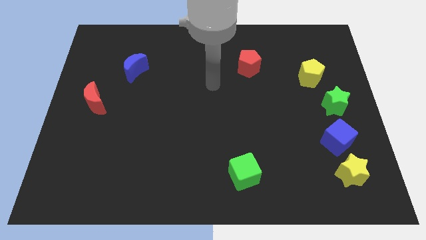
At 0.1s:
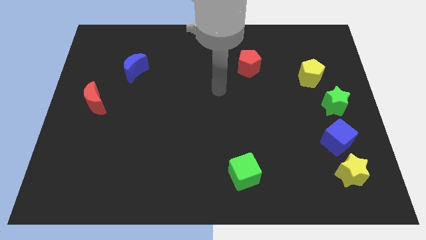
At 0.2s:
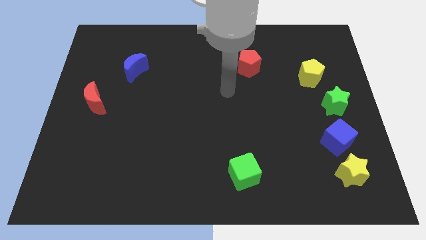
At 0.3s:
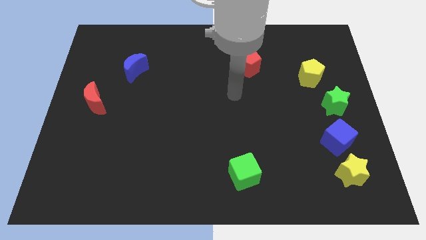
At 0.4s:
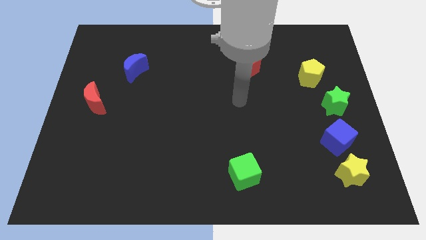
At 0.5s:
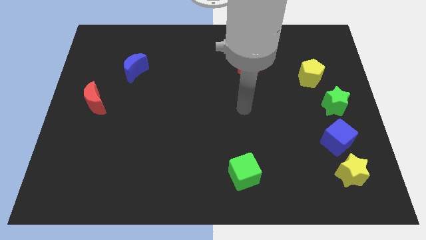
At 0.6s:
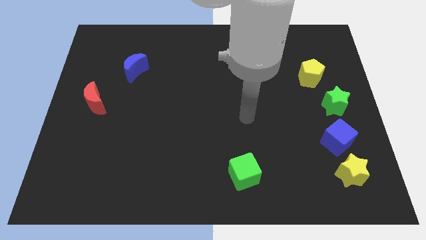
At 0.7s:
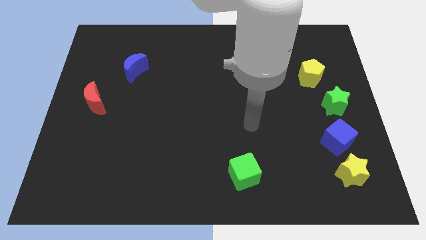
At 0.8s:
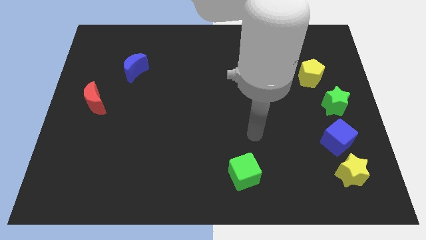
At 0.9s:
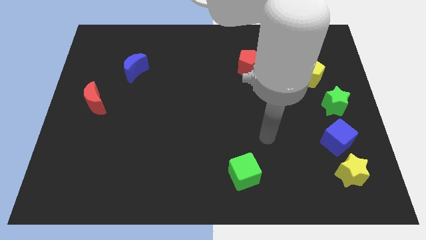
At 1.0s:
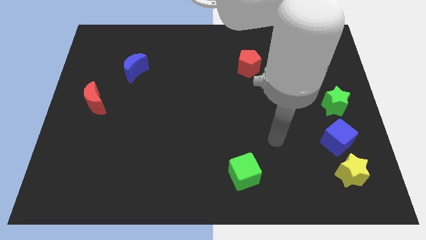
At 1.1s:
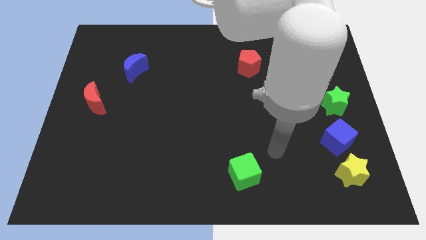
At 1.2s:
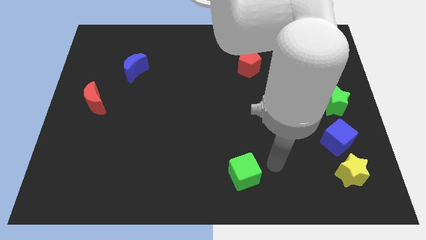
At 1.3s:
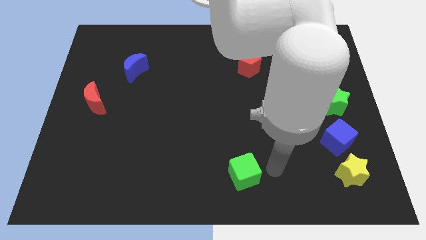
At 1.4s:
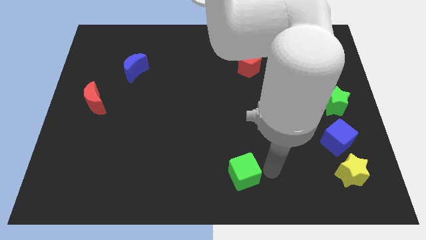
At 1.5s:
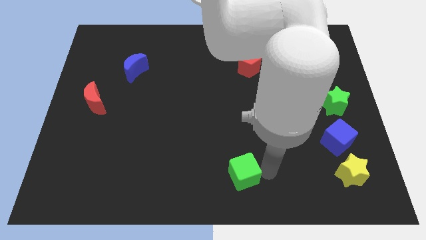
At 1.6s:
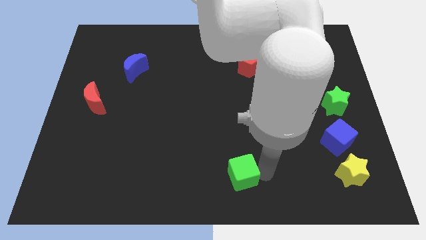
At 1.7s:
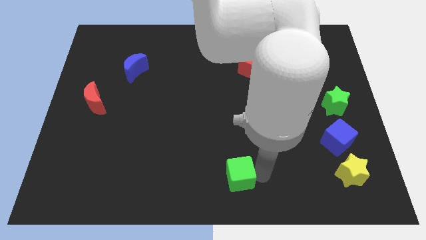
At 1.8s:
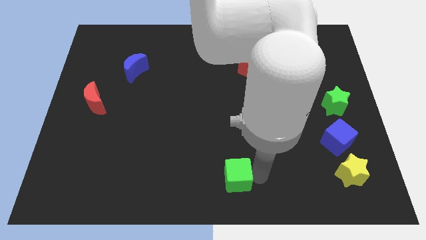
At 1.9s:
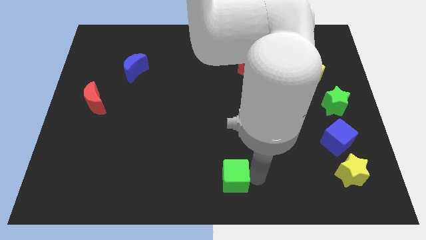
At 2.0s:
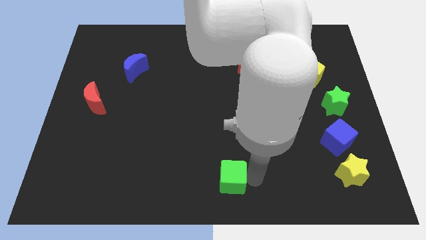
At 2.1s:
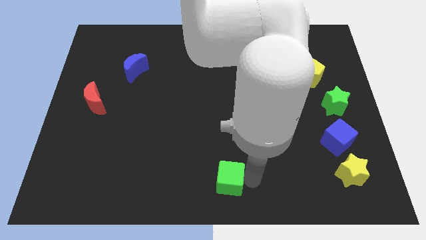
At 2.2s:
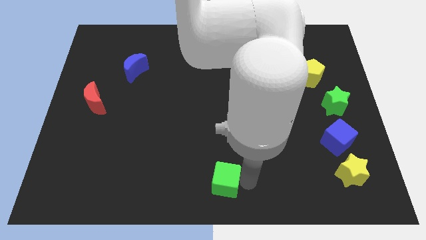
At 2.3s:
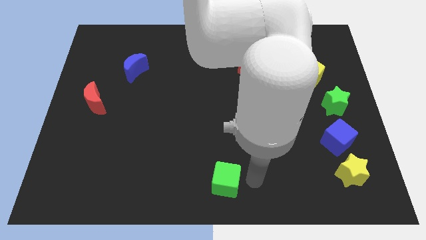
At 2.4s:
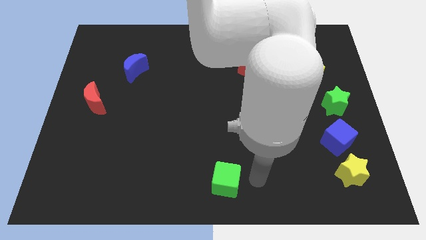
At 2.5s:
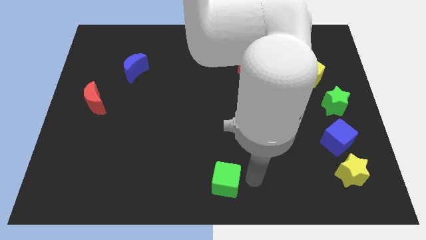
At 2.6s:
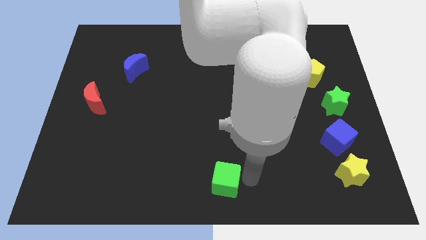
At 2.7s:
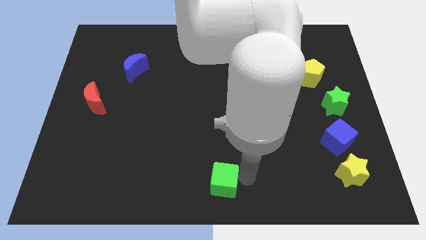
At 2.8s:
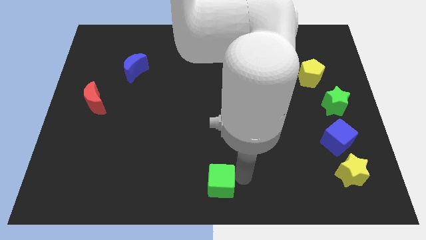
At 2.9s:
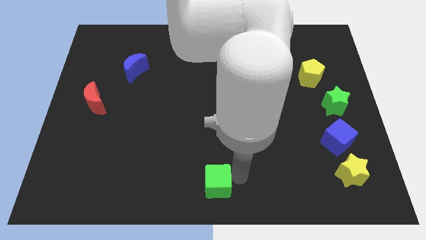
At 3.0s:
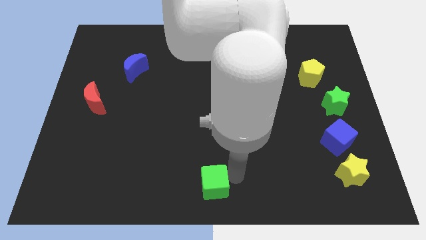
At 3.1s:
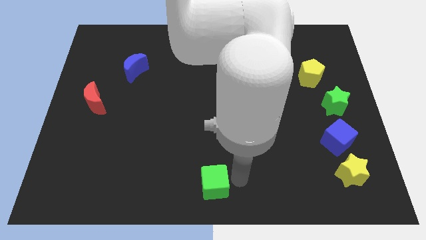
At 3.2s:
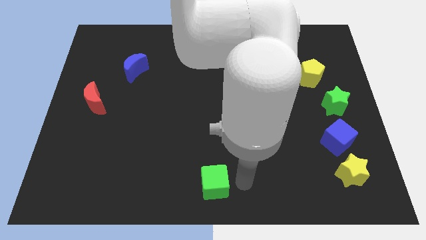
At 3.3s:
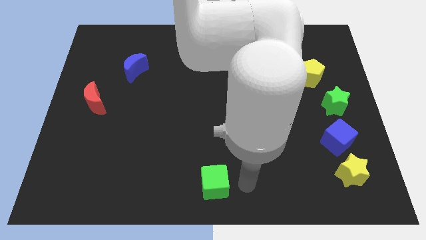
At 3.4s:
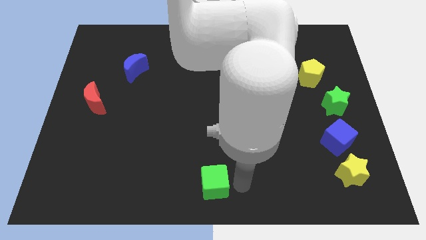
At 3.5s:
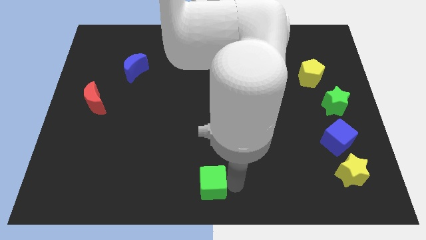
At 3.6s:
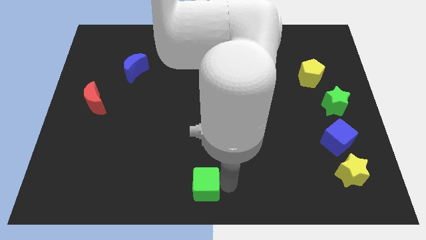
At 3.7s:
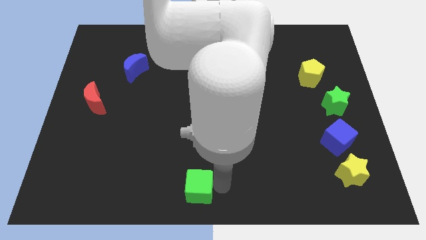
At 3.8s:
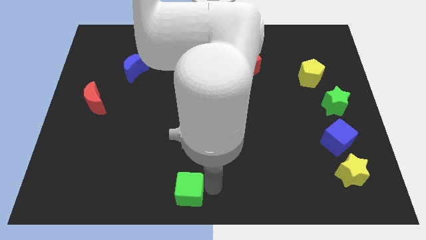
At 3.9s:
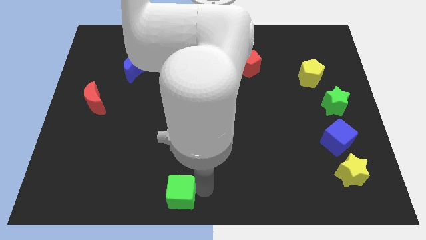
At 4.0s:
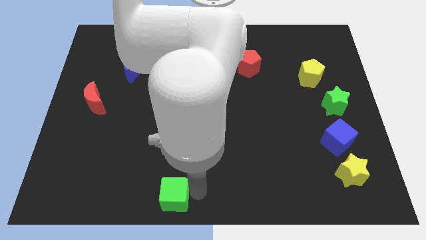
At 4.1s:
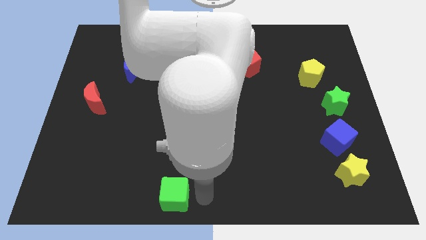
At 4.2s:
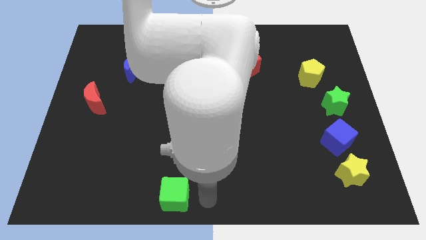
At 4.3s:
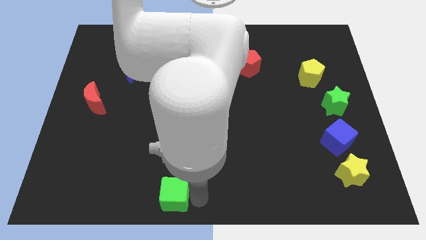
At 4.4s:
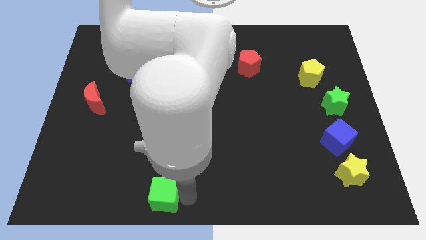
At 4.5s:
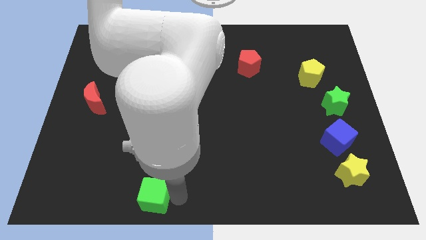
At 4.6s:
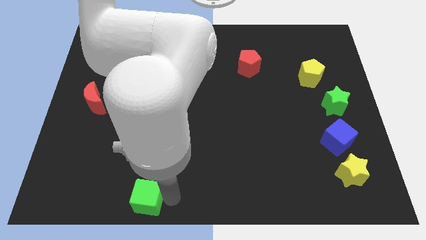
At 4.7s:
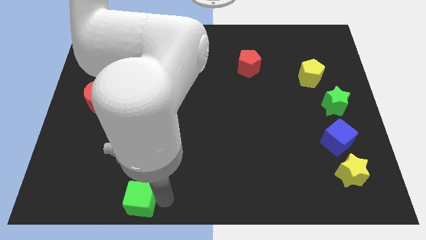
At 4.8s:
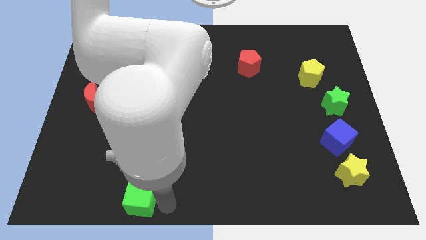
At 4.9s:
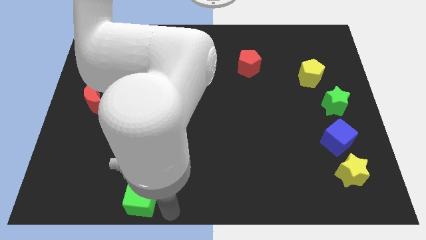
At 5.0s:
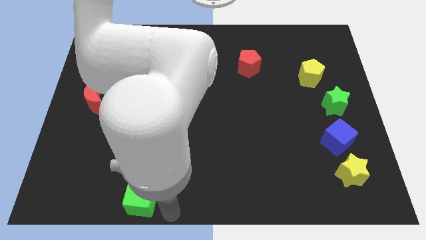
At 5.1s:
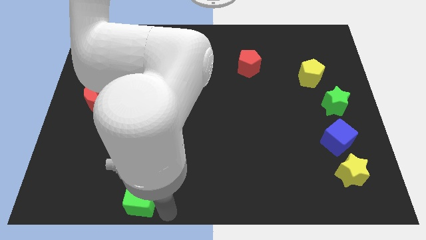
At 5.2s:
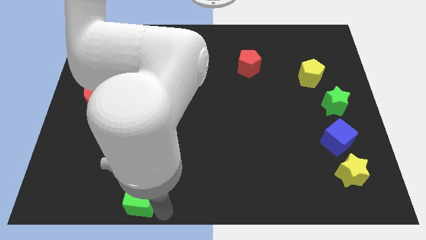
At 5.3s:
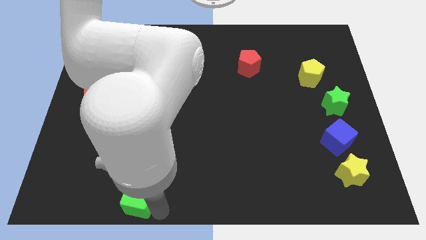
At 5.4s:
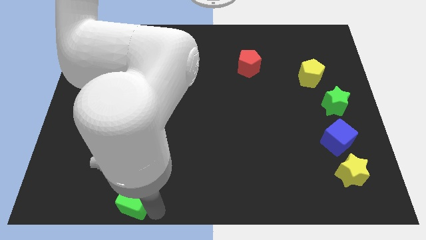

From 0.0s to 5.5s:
push the green cube left

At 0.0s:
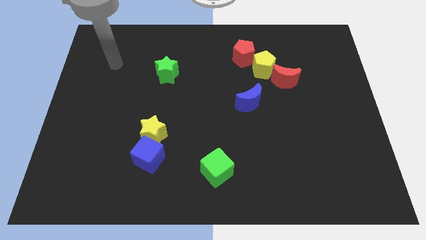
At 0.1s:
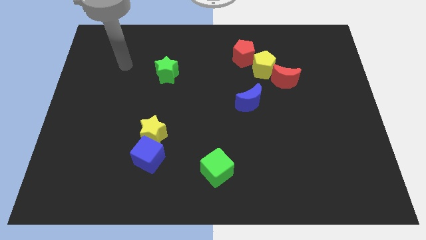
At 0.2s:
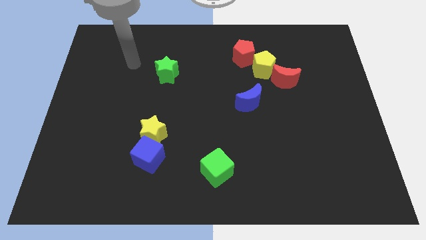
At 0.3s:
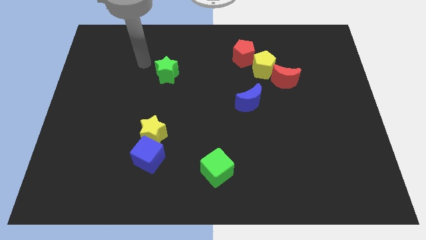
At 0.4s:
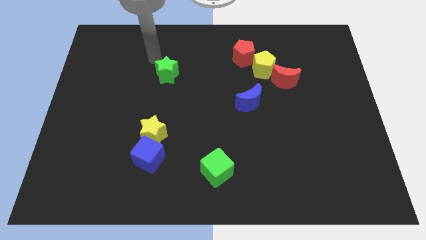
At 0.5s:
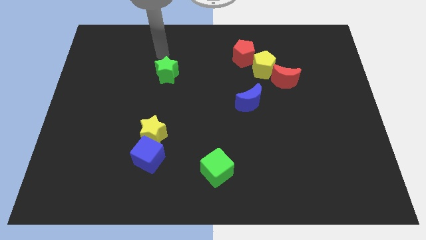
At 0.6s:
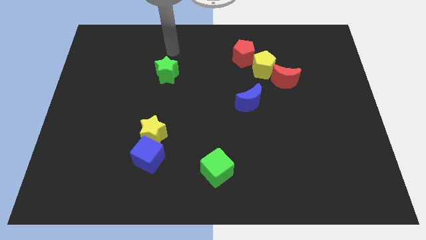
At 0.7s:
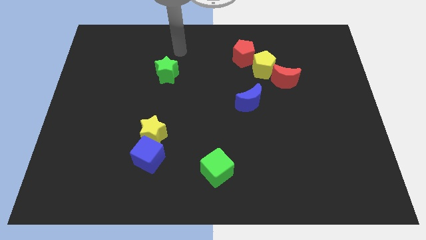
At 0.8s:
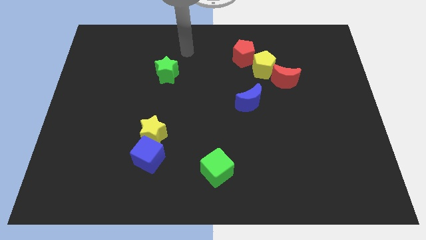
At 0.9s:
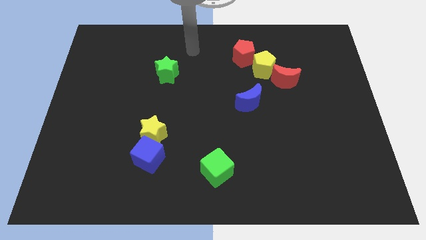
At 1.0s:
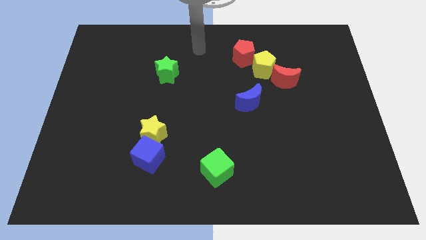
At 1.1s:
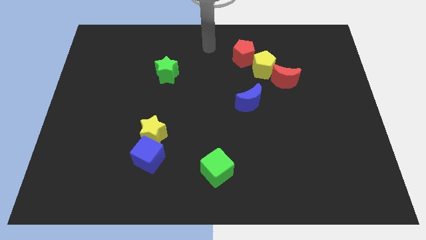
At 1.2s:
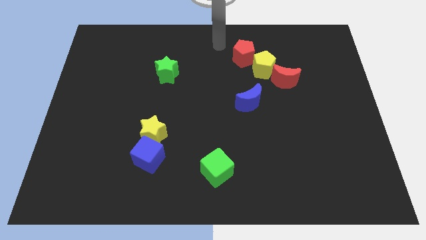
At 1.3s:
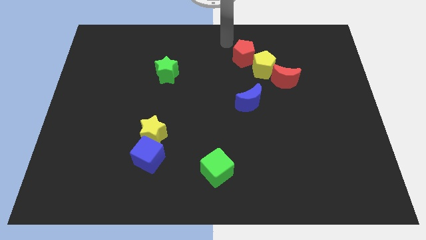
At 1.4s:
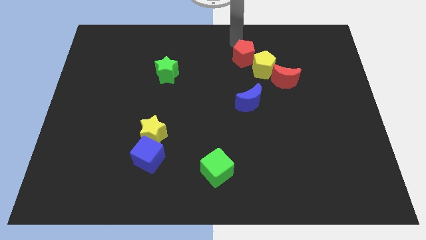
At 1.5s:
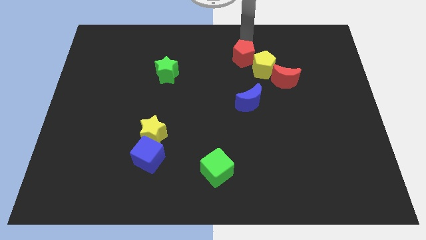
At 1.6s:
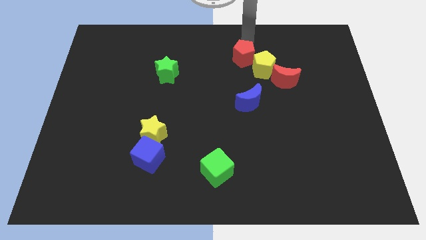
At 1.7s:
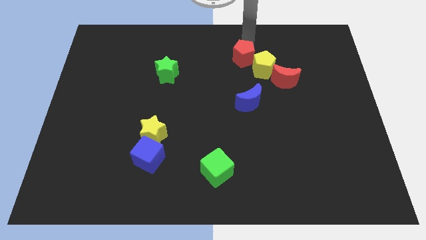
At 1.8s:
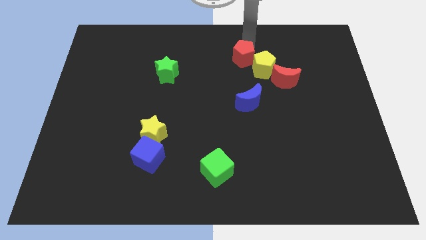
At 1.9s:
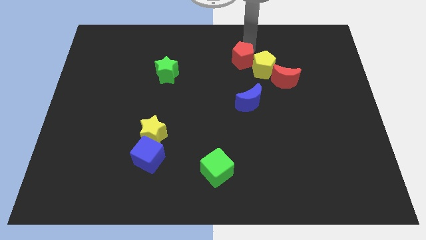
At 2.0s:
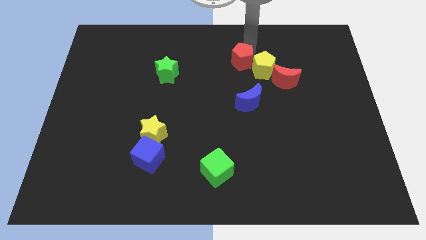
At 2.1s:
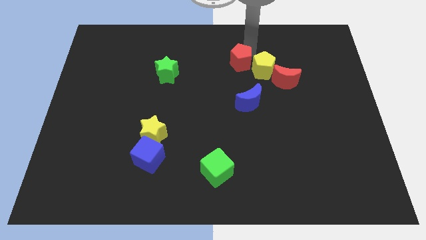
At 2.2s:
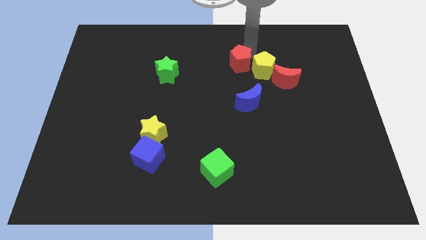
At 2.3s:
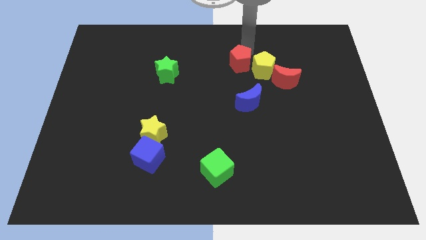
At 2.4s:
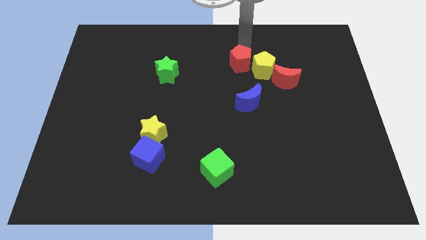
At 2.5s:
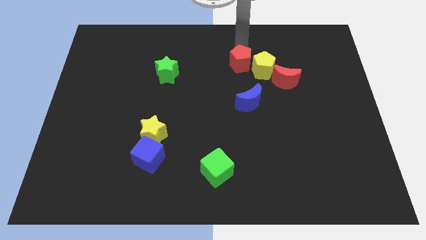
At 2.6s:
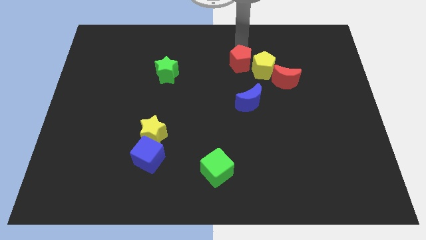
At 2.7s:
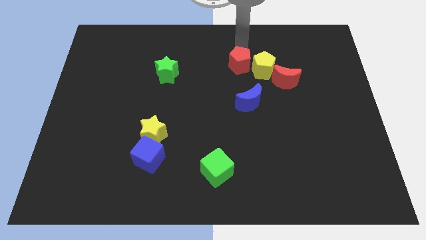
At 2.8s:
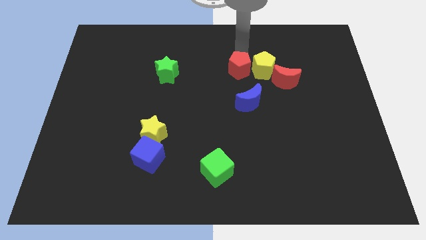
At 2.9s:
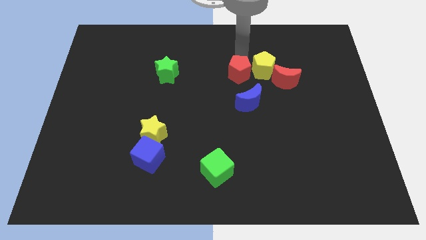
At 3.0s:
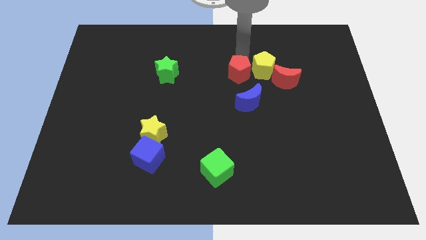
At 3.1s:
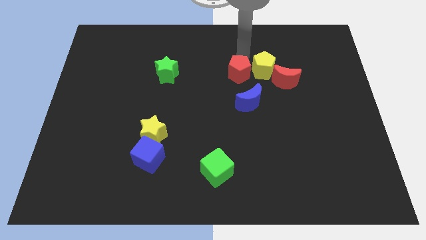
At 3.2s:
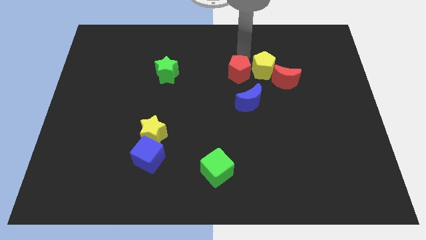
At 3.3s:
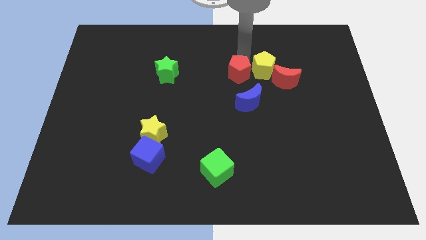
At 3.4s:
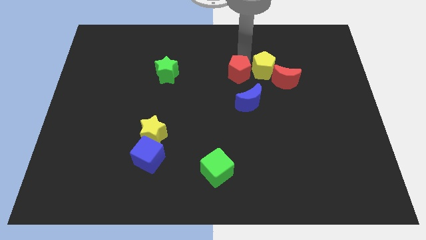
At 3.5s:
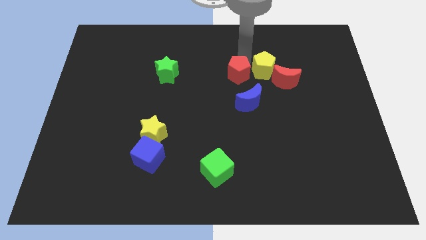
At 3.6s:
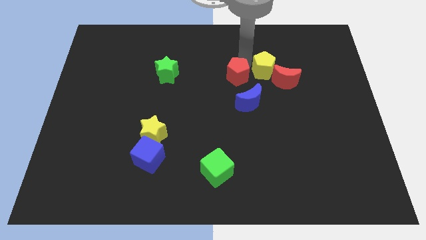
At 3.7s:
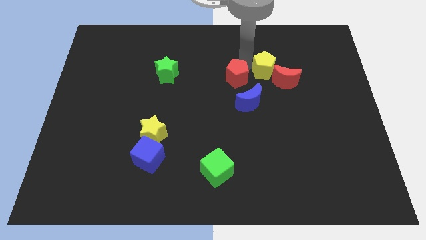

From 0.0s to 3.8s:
push the red pentagon somewhat down
